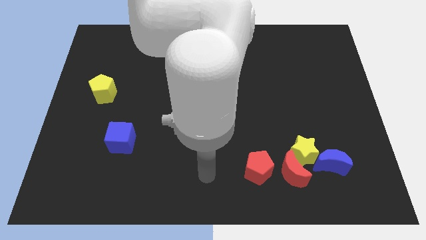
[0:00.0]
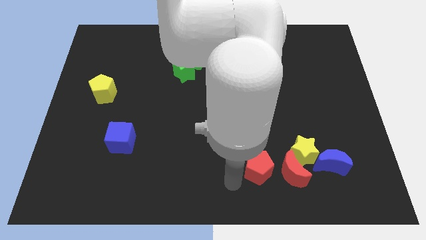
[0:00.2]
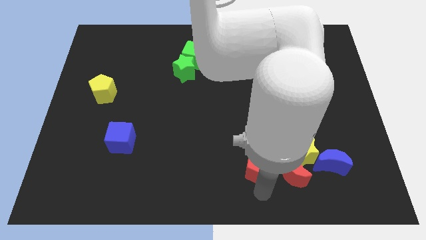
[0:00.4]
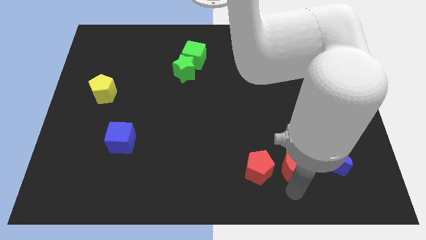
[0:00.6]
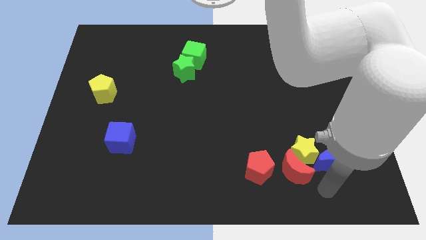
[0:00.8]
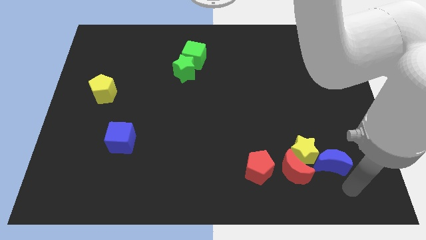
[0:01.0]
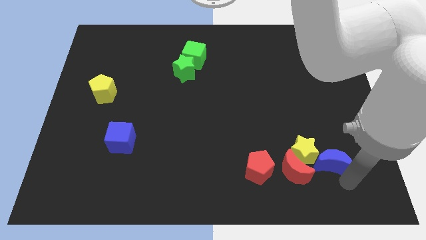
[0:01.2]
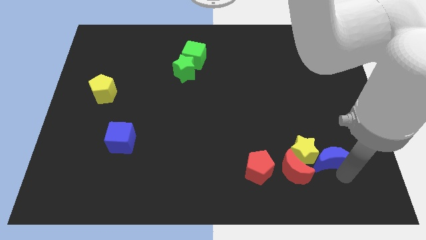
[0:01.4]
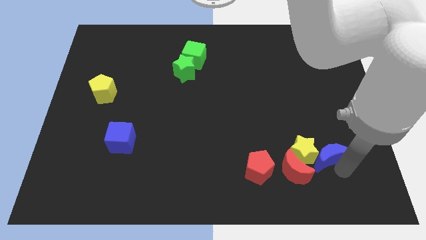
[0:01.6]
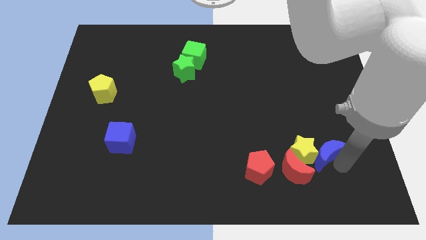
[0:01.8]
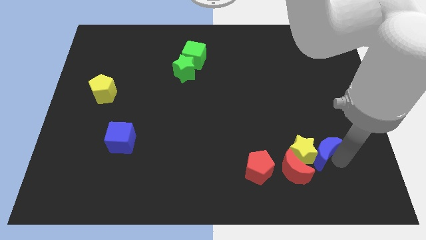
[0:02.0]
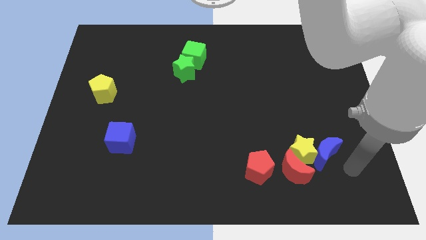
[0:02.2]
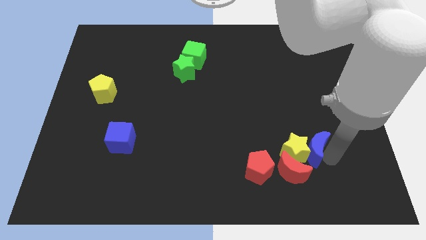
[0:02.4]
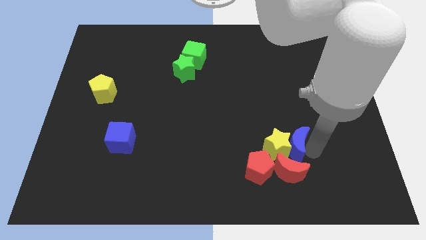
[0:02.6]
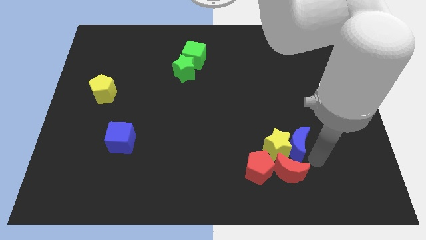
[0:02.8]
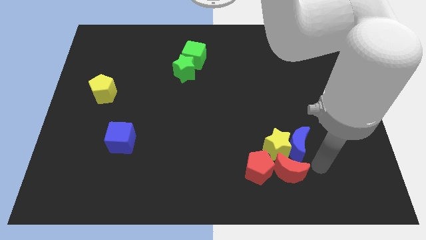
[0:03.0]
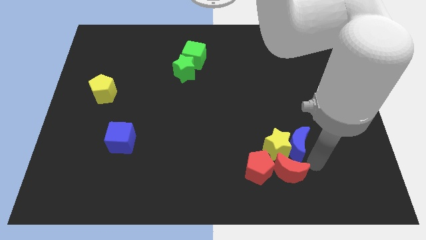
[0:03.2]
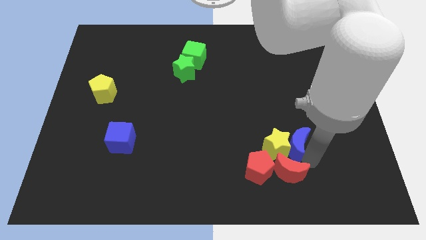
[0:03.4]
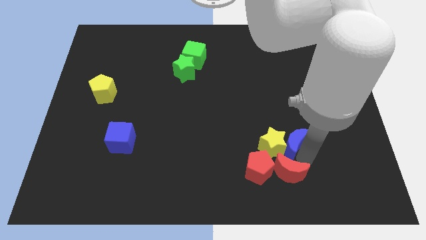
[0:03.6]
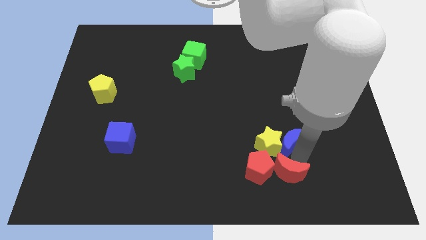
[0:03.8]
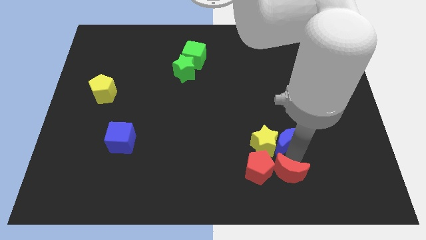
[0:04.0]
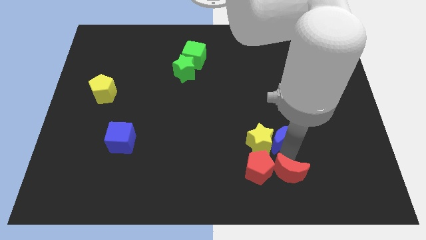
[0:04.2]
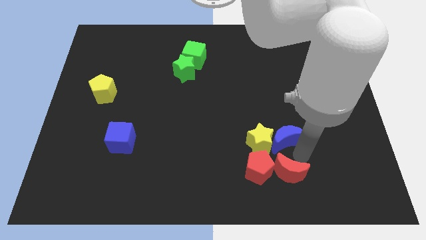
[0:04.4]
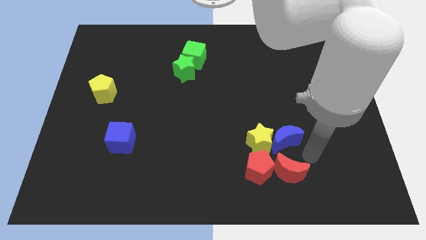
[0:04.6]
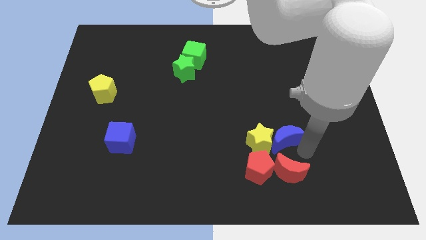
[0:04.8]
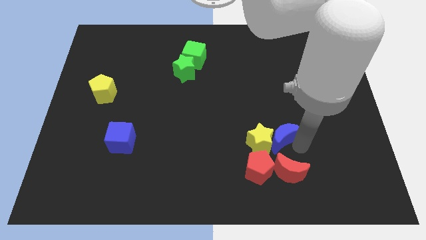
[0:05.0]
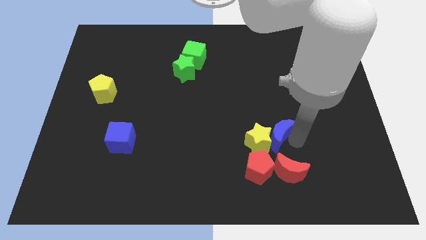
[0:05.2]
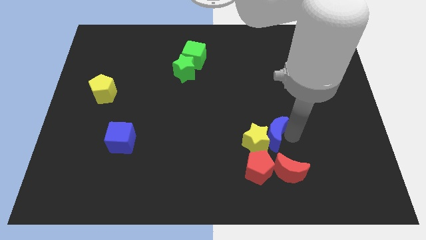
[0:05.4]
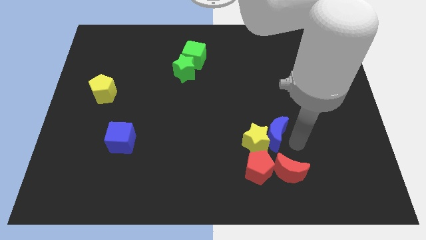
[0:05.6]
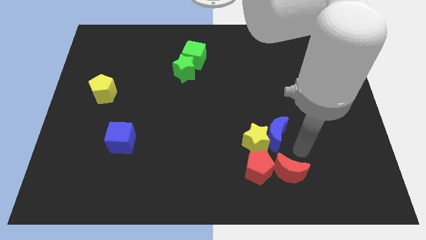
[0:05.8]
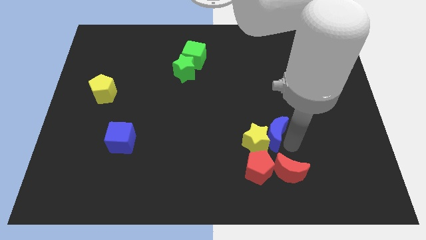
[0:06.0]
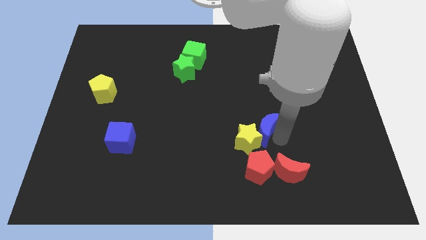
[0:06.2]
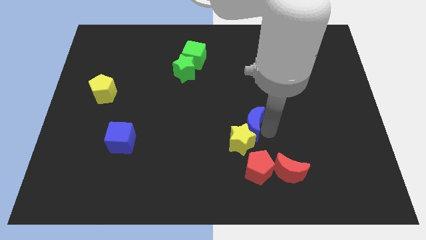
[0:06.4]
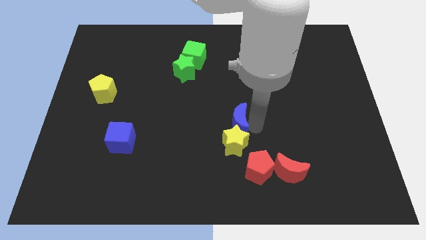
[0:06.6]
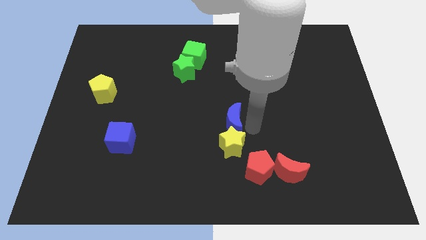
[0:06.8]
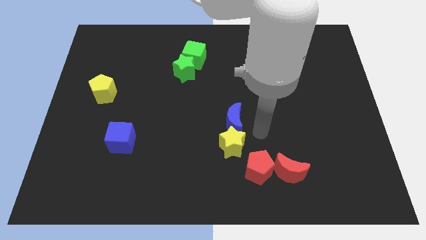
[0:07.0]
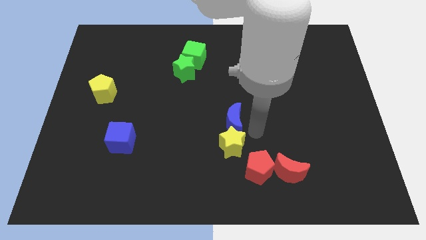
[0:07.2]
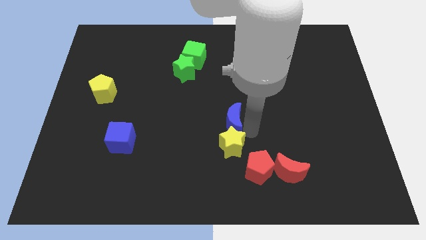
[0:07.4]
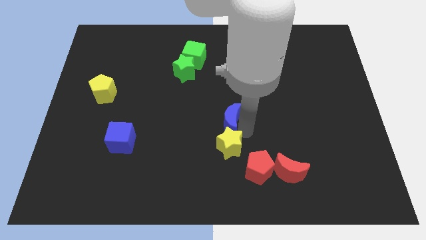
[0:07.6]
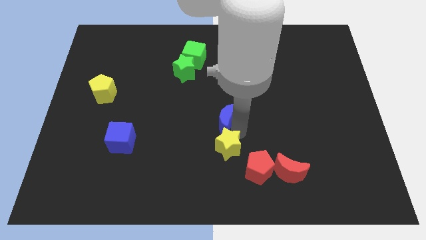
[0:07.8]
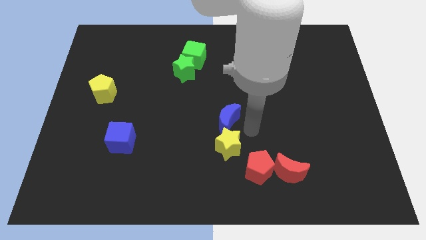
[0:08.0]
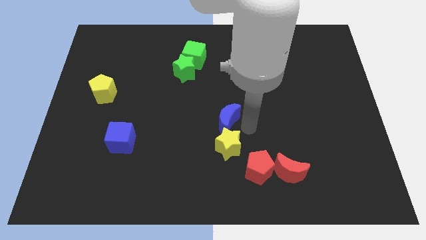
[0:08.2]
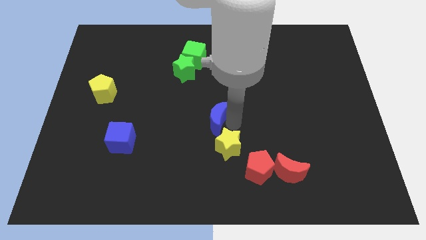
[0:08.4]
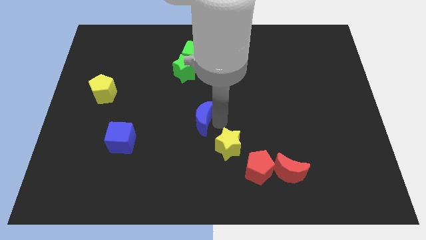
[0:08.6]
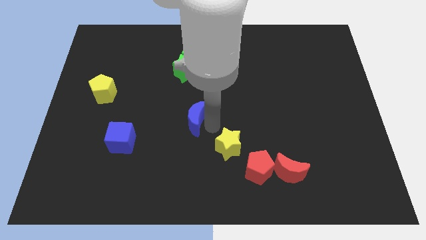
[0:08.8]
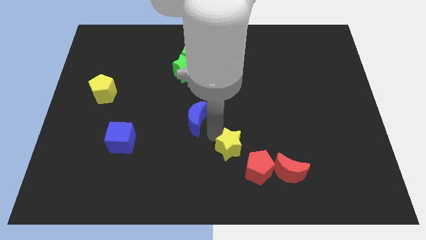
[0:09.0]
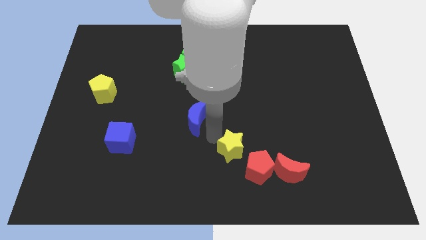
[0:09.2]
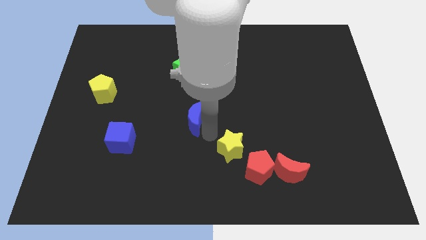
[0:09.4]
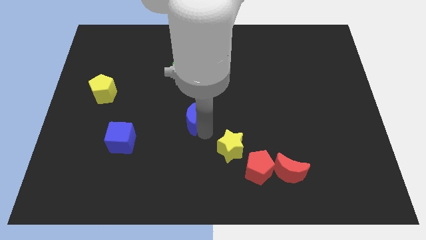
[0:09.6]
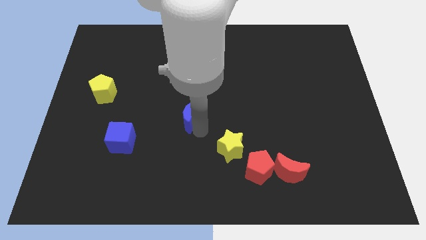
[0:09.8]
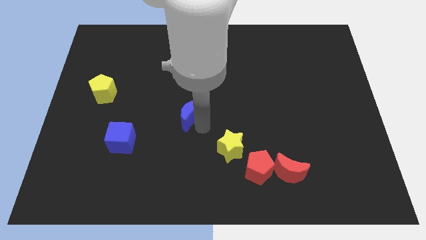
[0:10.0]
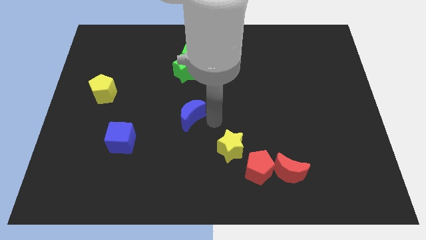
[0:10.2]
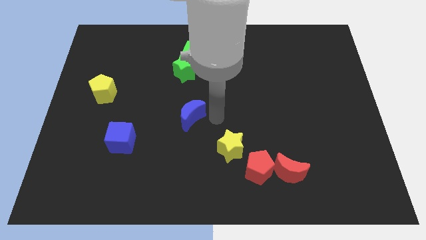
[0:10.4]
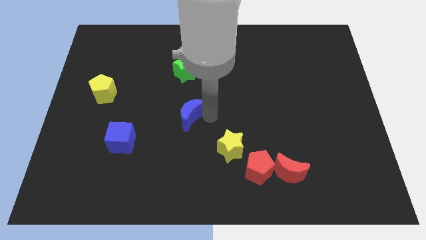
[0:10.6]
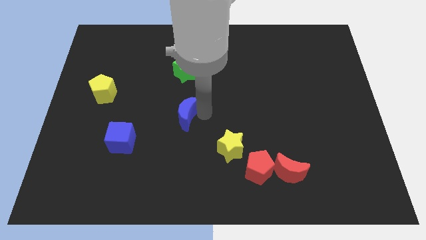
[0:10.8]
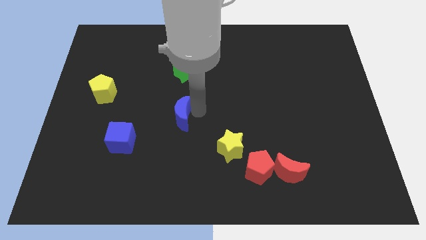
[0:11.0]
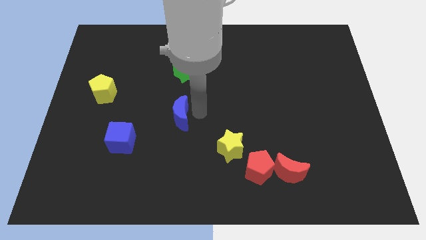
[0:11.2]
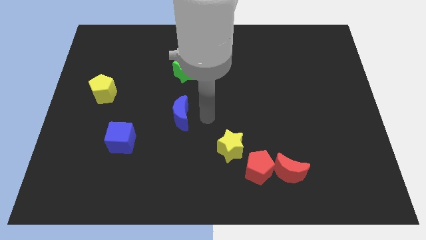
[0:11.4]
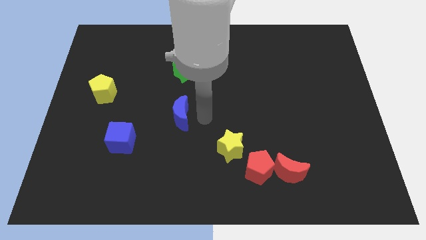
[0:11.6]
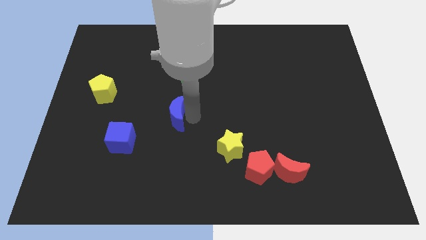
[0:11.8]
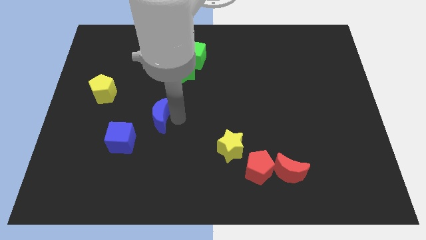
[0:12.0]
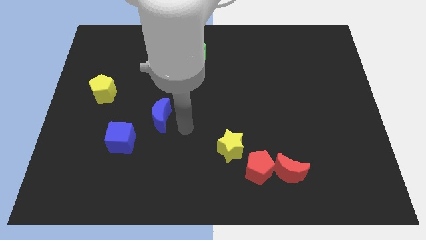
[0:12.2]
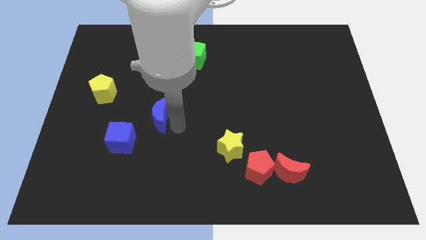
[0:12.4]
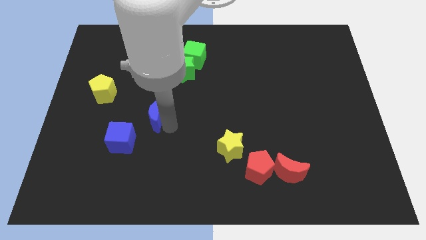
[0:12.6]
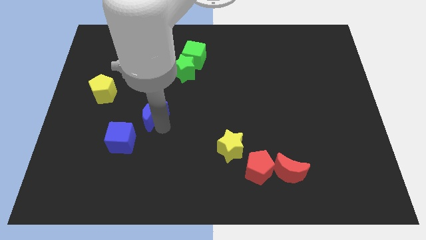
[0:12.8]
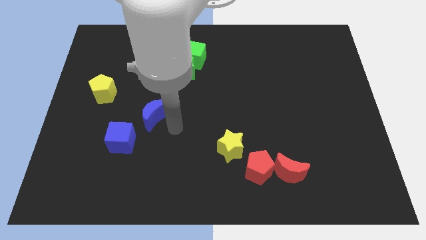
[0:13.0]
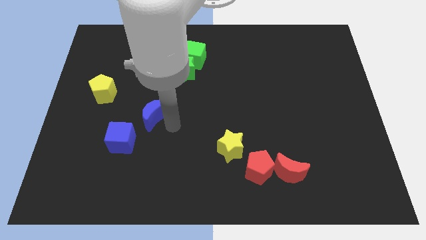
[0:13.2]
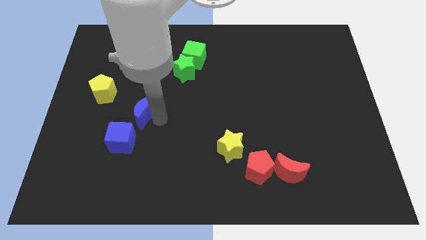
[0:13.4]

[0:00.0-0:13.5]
move the blue moon above the blue cube
